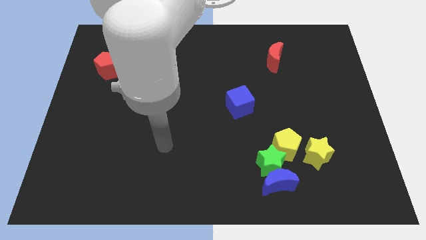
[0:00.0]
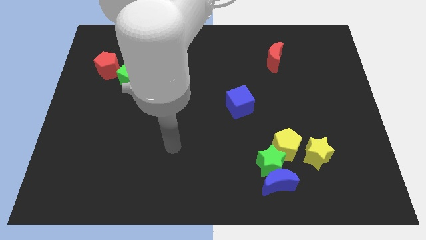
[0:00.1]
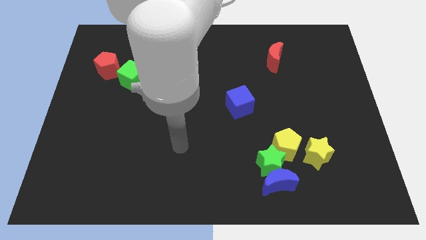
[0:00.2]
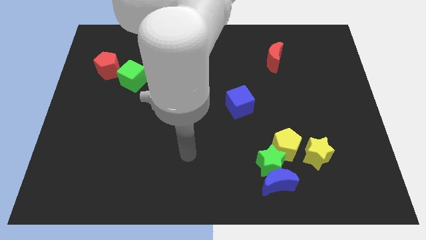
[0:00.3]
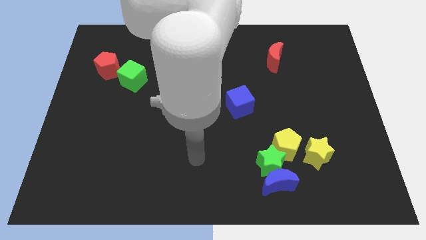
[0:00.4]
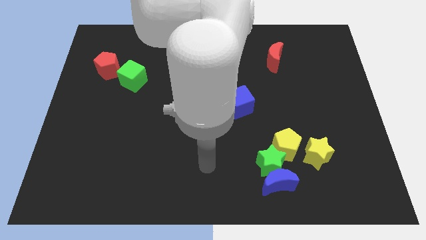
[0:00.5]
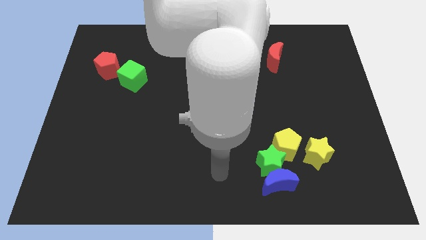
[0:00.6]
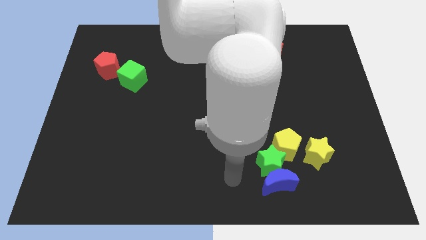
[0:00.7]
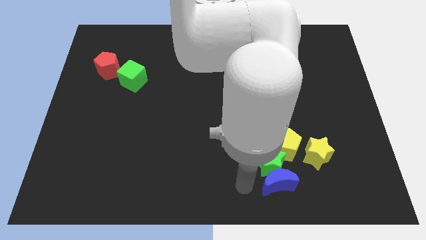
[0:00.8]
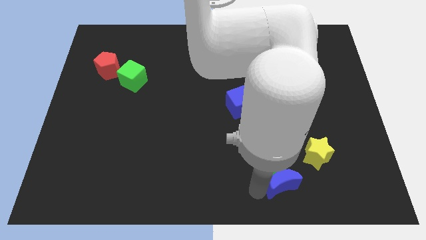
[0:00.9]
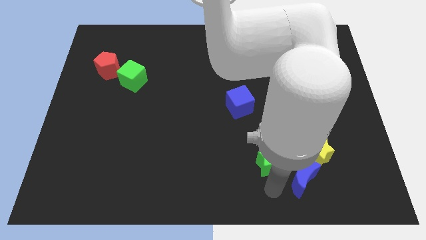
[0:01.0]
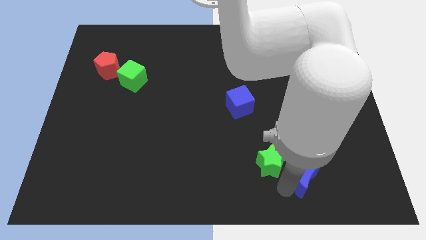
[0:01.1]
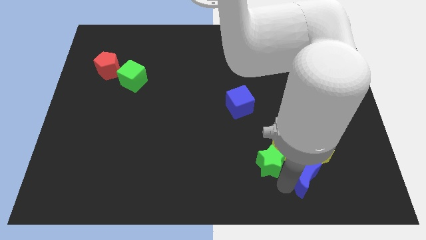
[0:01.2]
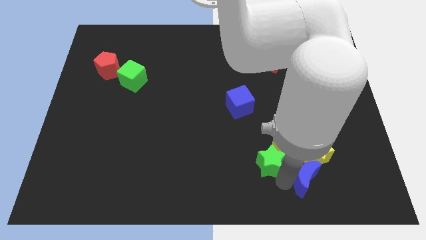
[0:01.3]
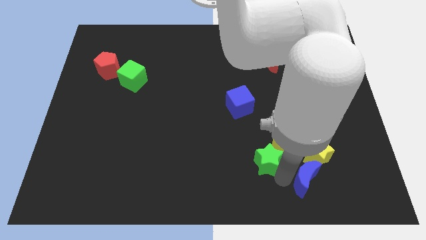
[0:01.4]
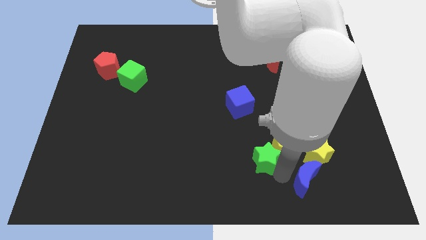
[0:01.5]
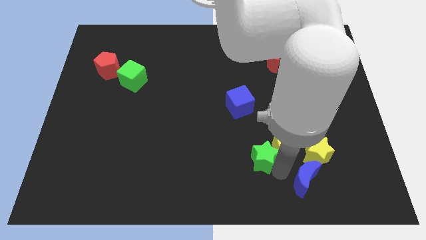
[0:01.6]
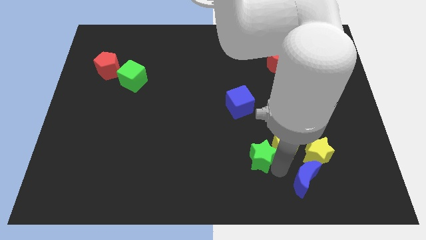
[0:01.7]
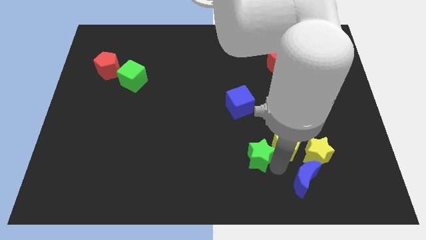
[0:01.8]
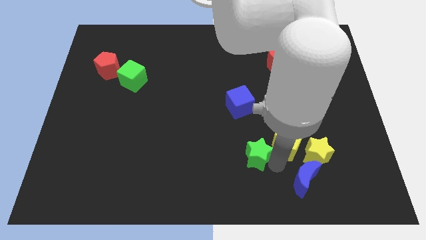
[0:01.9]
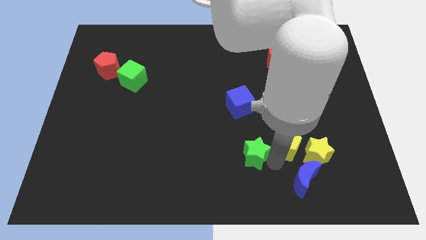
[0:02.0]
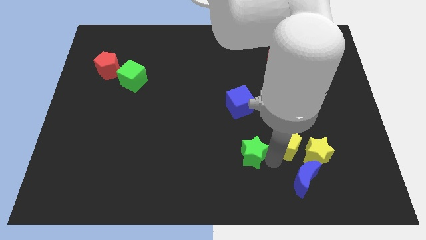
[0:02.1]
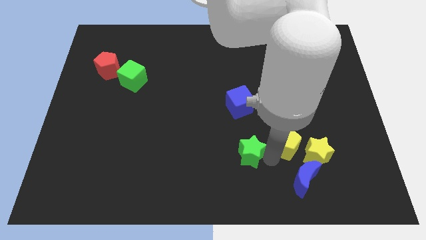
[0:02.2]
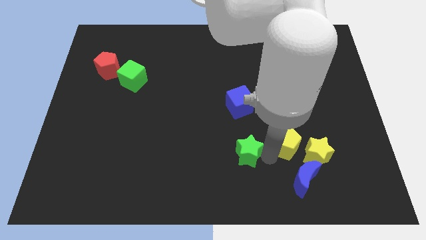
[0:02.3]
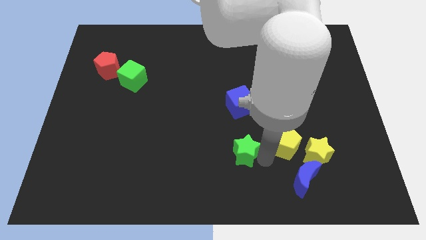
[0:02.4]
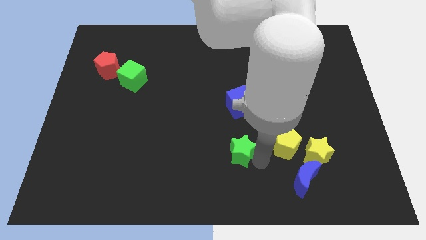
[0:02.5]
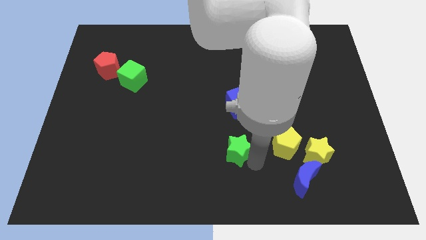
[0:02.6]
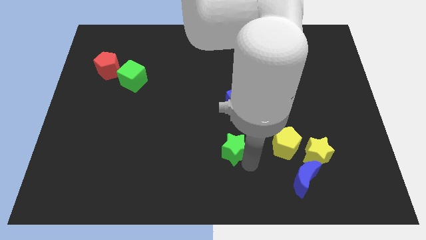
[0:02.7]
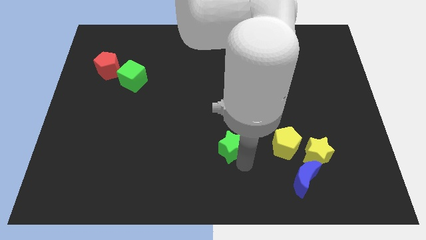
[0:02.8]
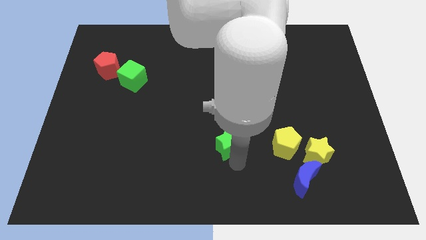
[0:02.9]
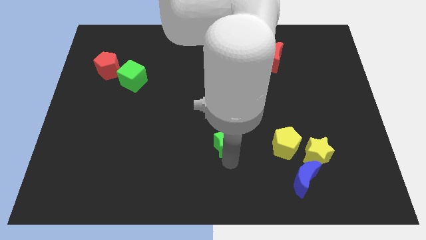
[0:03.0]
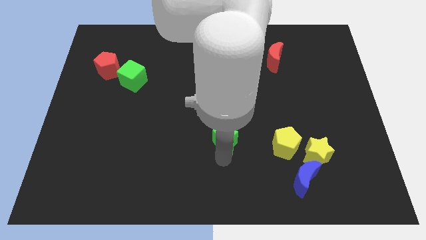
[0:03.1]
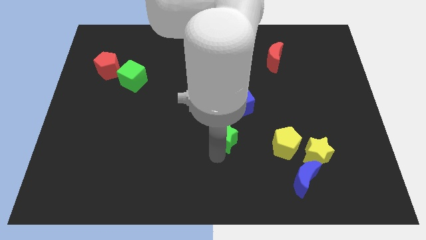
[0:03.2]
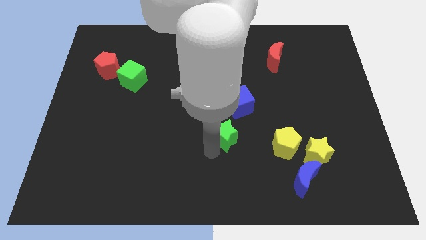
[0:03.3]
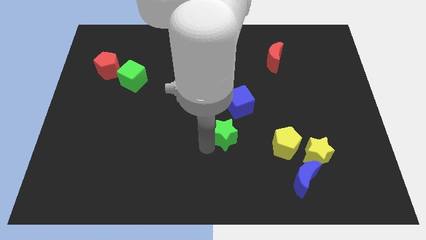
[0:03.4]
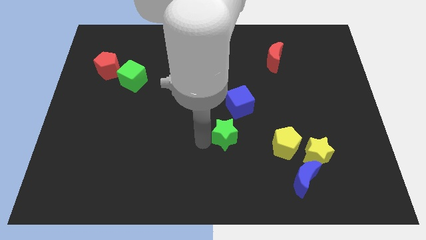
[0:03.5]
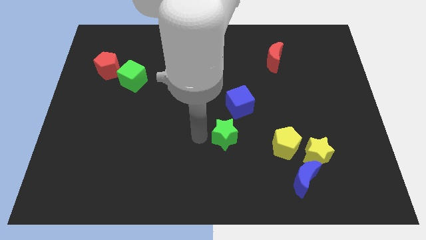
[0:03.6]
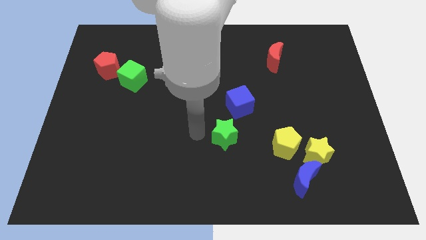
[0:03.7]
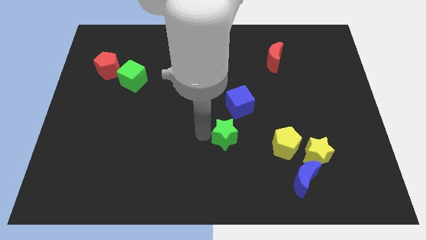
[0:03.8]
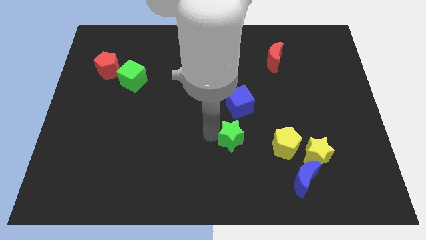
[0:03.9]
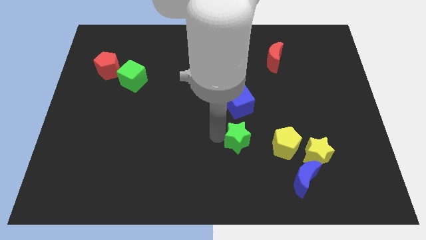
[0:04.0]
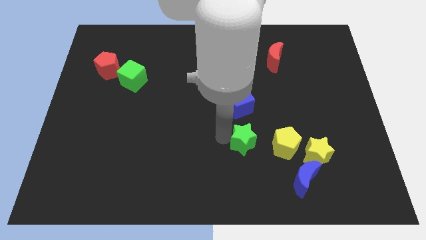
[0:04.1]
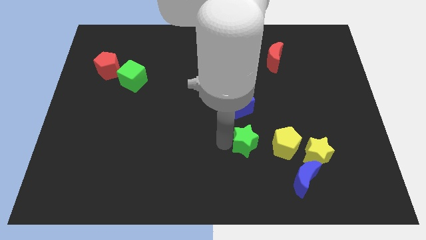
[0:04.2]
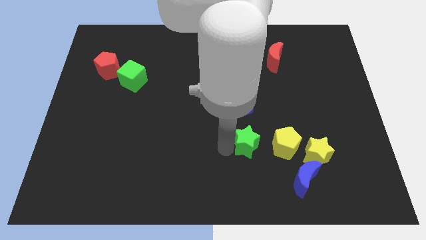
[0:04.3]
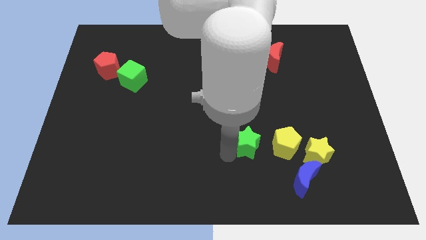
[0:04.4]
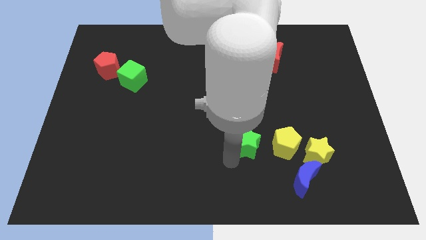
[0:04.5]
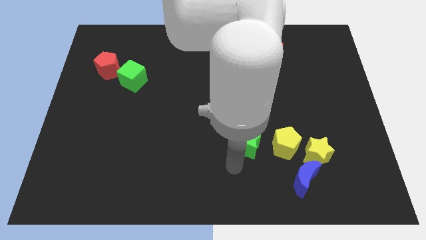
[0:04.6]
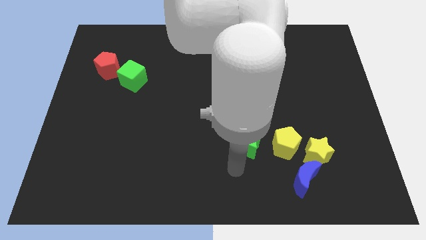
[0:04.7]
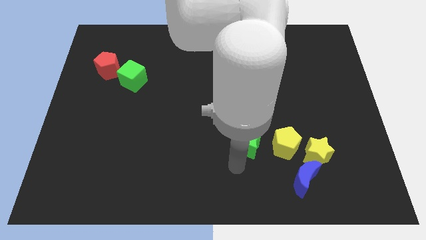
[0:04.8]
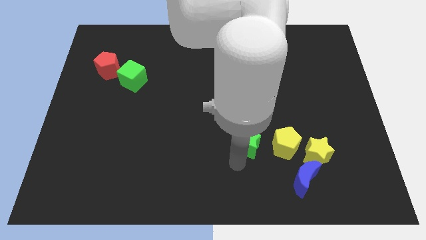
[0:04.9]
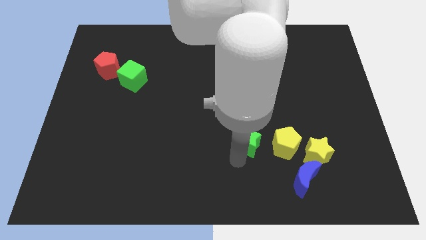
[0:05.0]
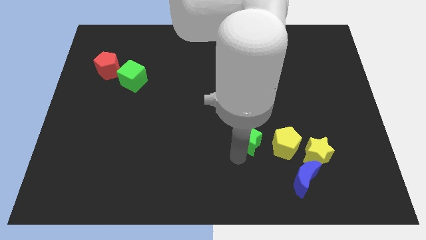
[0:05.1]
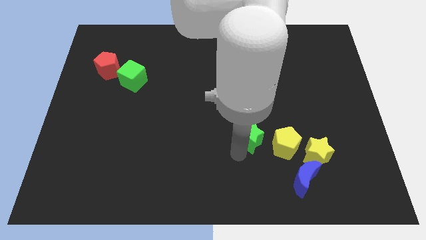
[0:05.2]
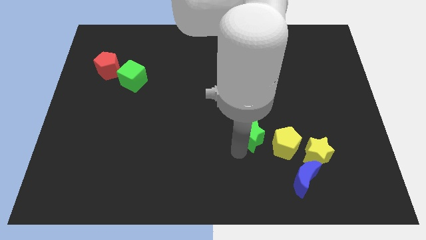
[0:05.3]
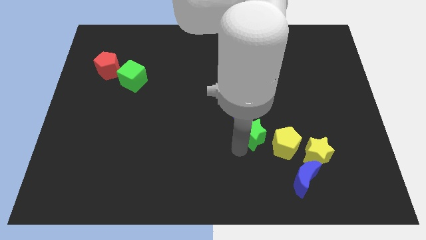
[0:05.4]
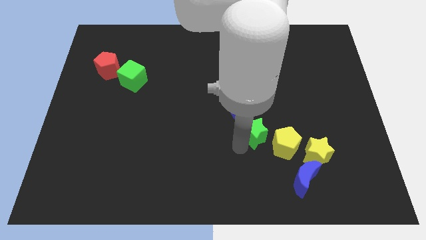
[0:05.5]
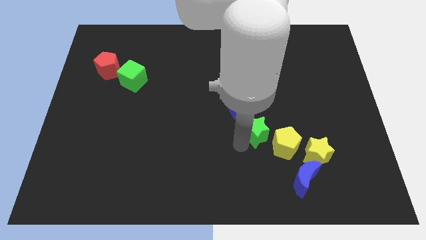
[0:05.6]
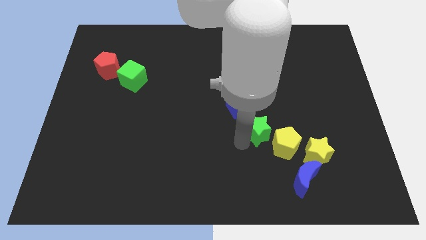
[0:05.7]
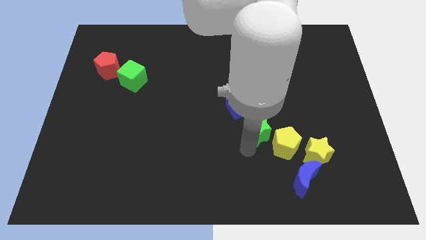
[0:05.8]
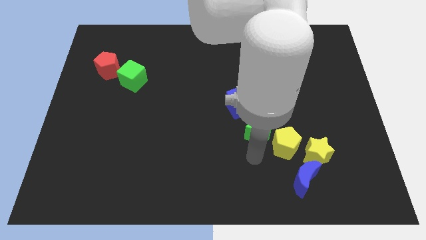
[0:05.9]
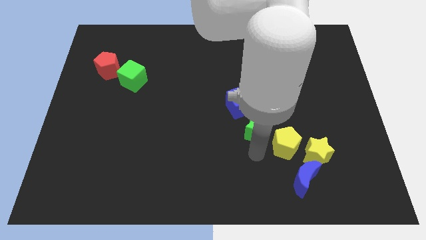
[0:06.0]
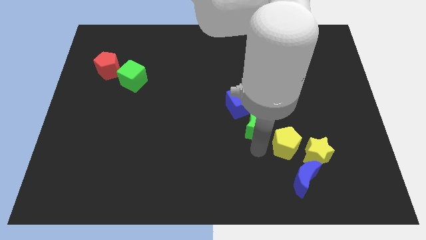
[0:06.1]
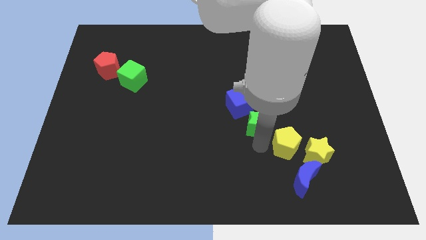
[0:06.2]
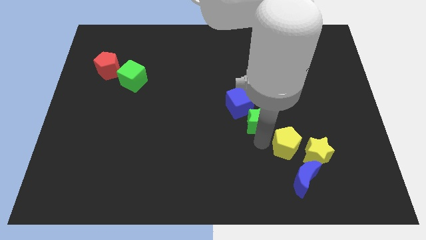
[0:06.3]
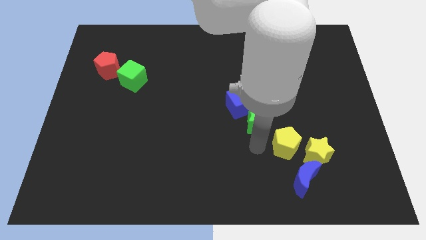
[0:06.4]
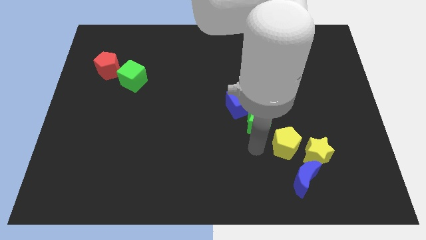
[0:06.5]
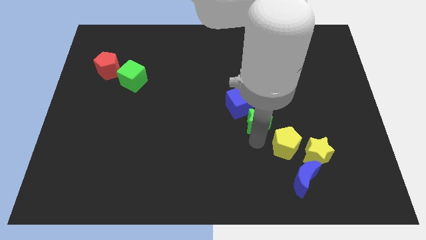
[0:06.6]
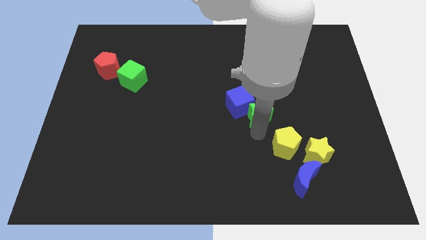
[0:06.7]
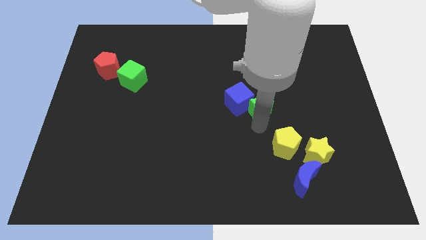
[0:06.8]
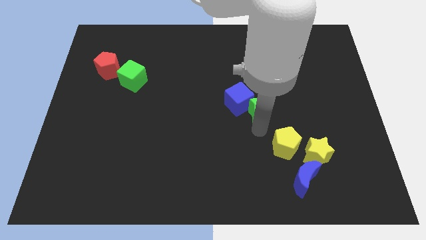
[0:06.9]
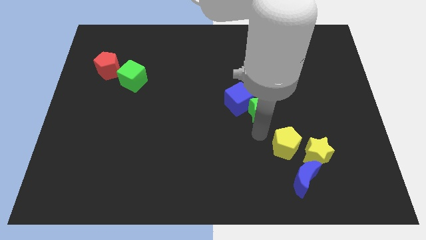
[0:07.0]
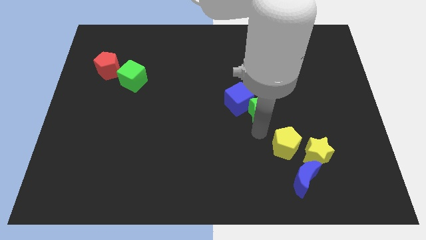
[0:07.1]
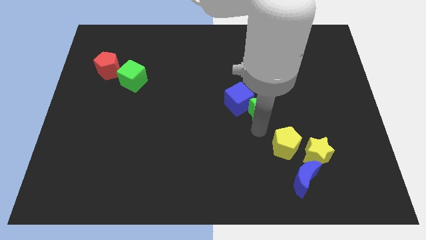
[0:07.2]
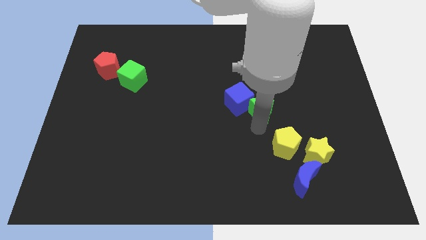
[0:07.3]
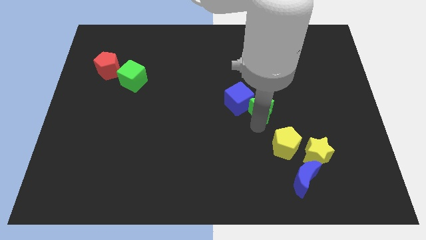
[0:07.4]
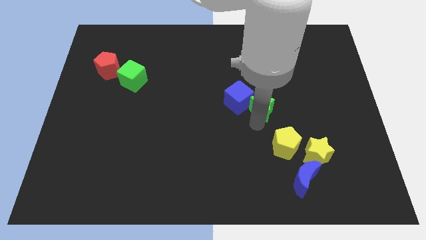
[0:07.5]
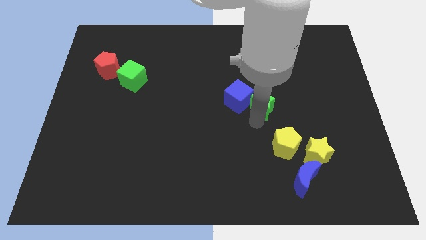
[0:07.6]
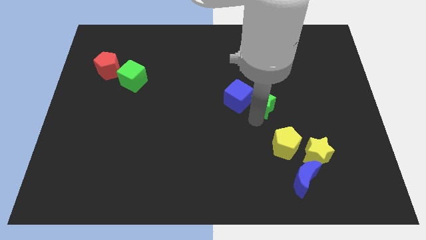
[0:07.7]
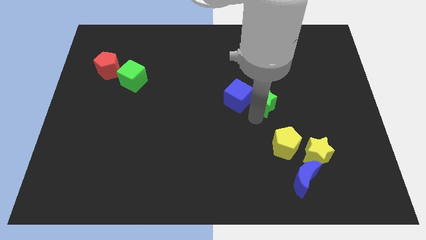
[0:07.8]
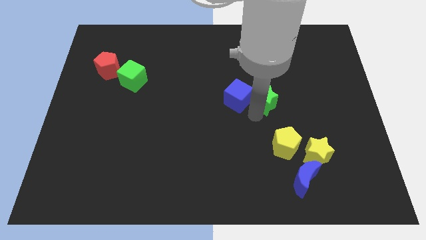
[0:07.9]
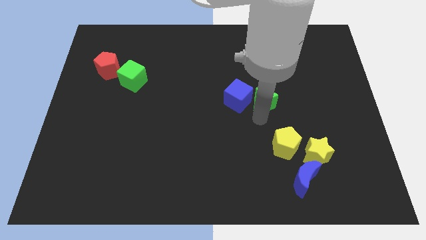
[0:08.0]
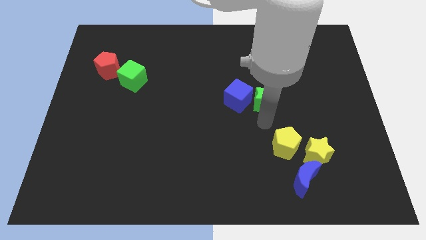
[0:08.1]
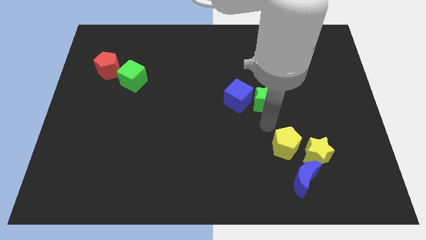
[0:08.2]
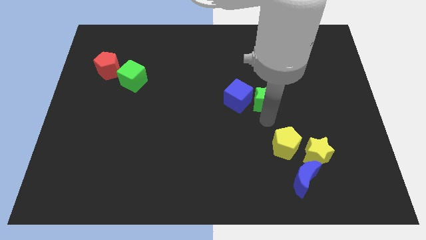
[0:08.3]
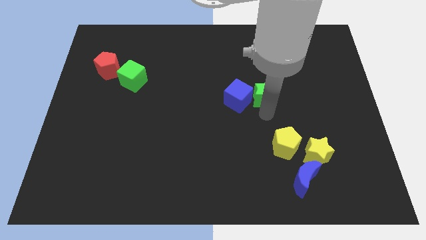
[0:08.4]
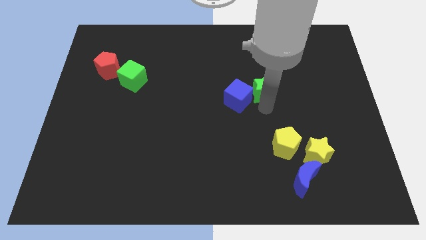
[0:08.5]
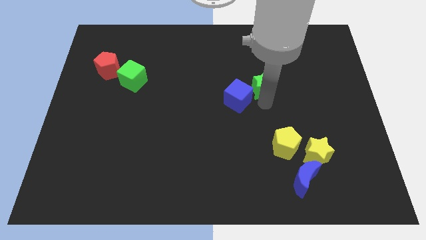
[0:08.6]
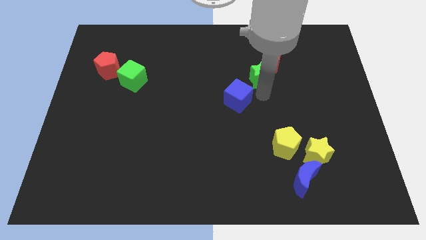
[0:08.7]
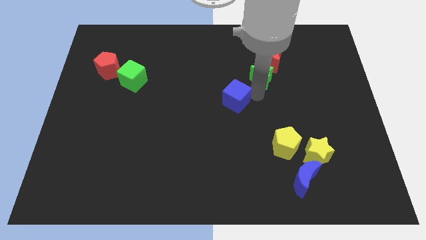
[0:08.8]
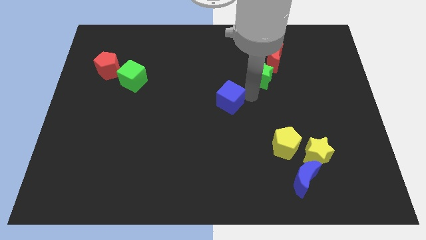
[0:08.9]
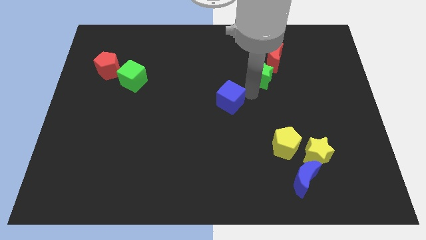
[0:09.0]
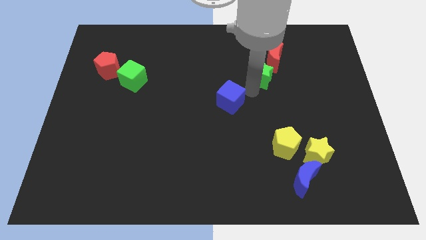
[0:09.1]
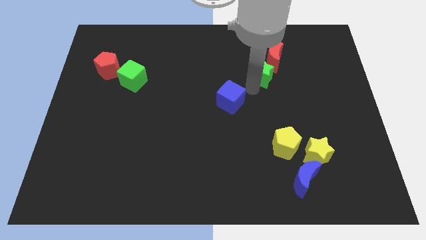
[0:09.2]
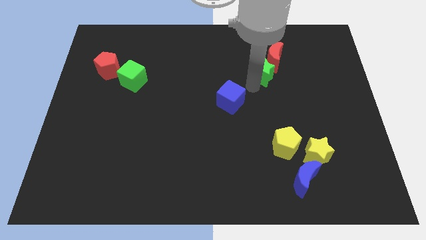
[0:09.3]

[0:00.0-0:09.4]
put the green star to the red moon
